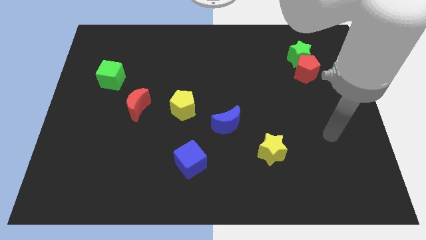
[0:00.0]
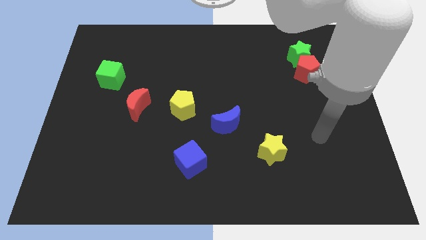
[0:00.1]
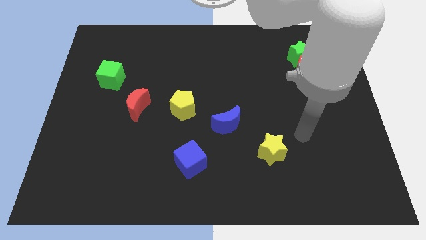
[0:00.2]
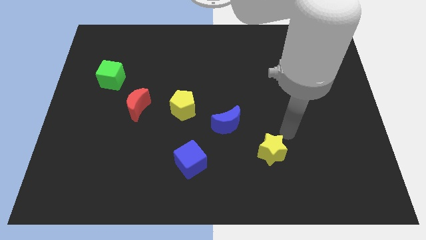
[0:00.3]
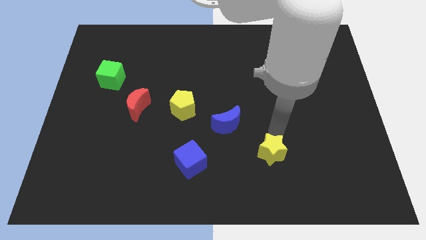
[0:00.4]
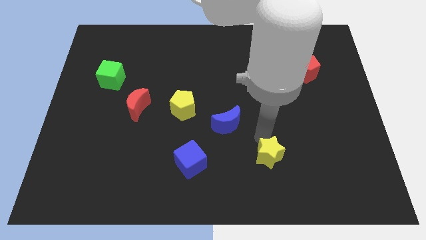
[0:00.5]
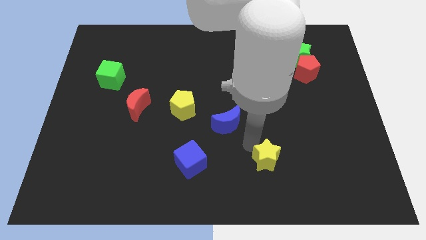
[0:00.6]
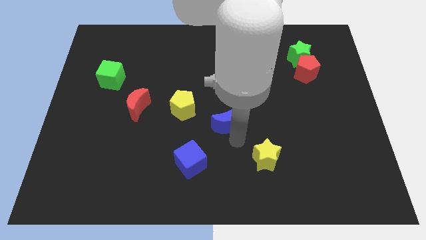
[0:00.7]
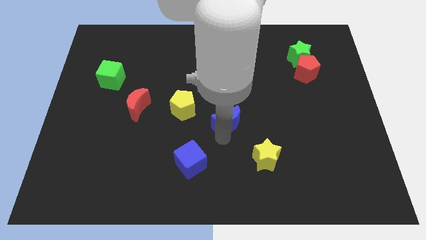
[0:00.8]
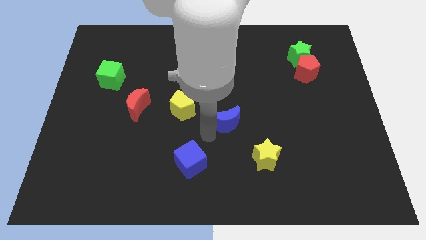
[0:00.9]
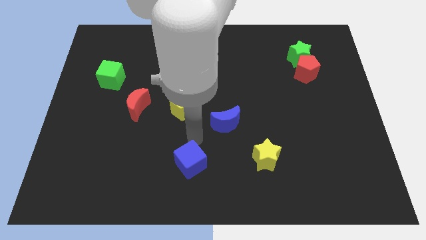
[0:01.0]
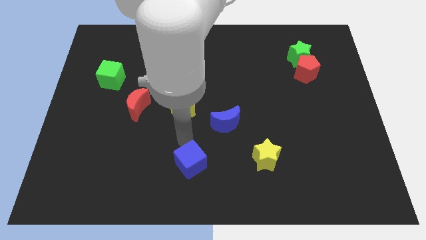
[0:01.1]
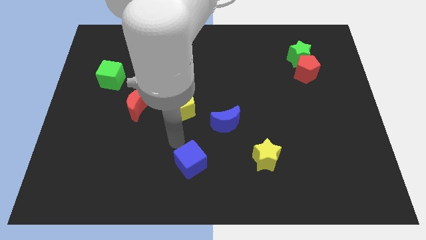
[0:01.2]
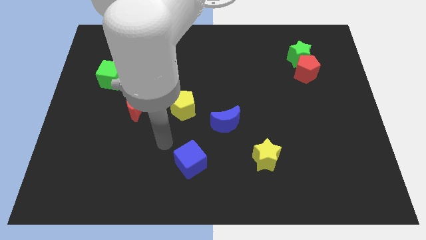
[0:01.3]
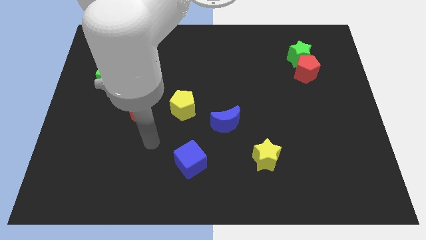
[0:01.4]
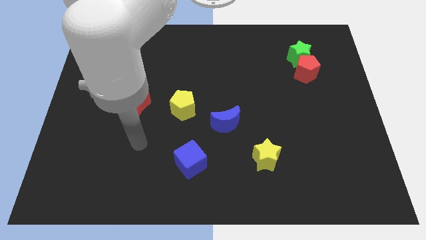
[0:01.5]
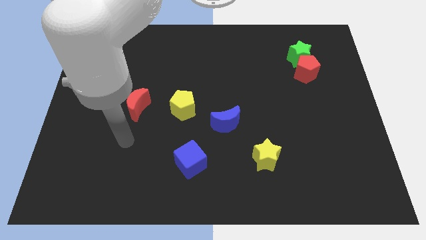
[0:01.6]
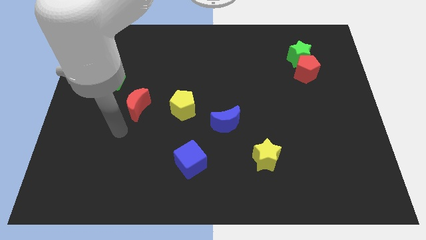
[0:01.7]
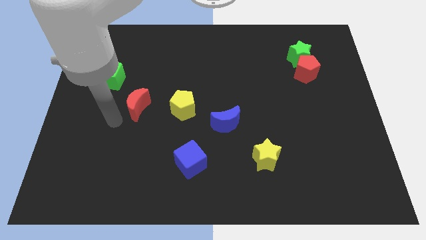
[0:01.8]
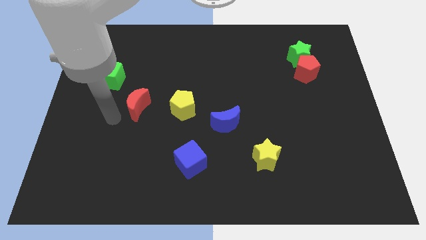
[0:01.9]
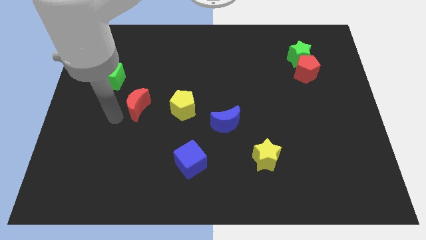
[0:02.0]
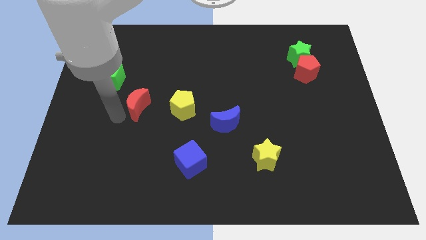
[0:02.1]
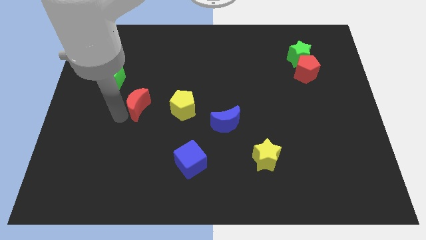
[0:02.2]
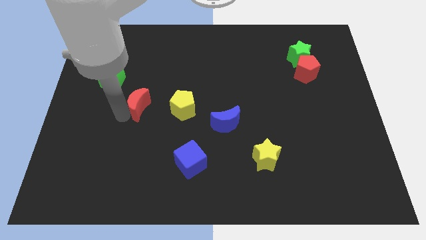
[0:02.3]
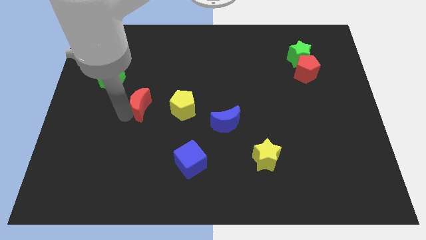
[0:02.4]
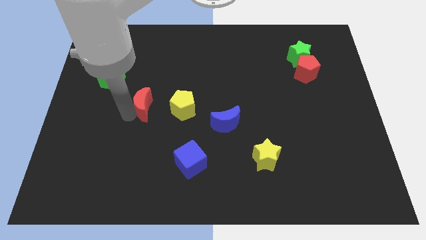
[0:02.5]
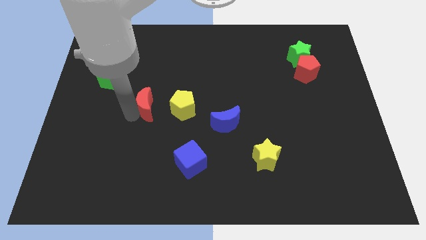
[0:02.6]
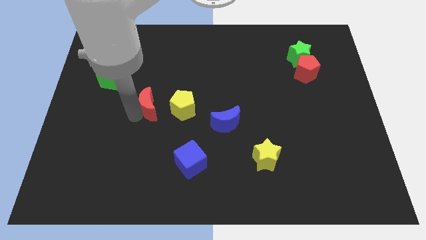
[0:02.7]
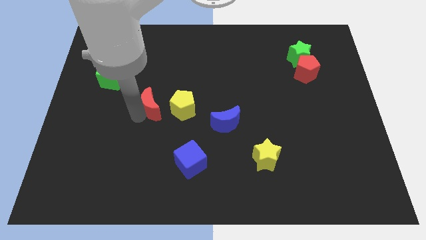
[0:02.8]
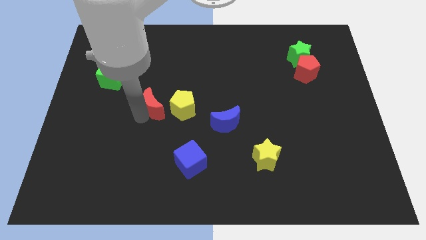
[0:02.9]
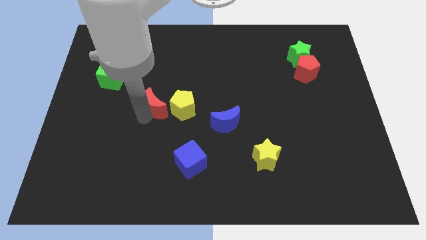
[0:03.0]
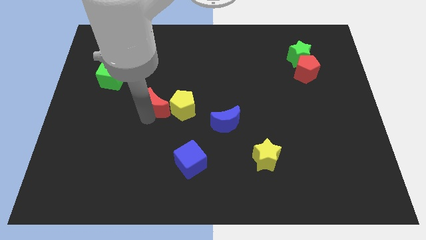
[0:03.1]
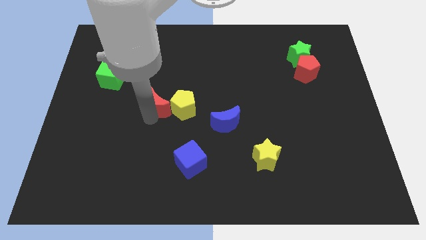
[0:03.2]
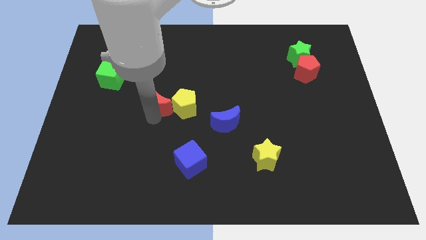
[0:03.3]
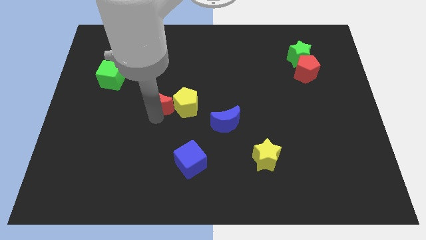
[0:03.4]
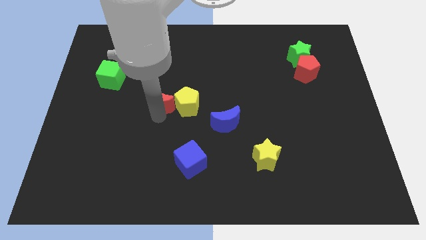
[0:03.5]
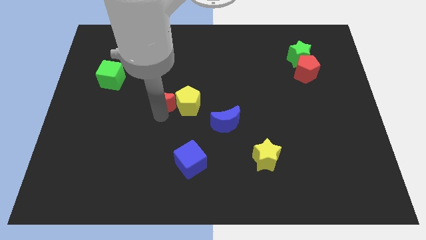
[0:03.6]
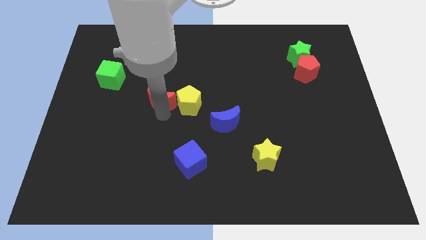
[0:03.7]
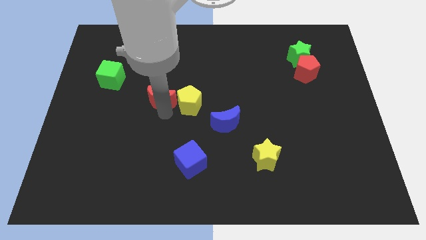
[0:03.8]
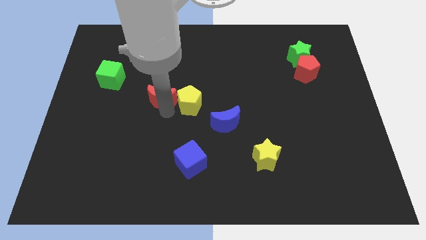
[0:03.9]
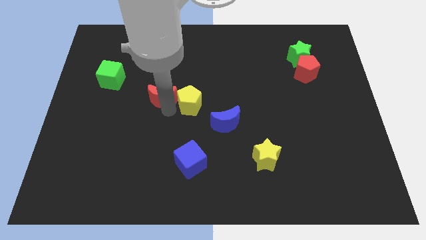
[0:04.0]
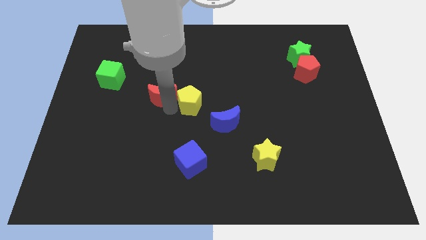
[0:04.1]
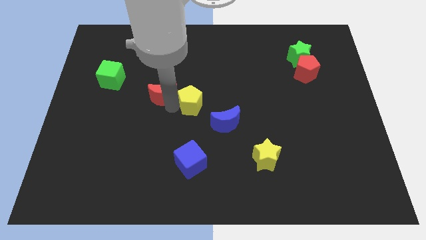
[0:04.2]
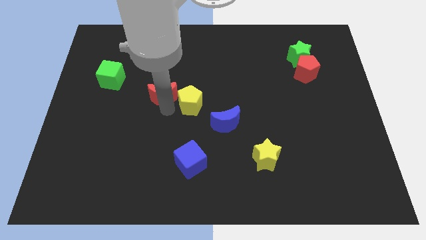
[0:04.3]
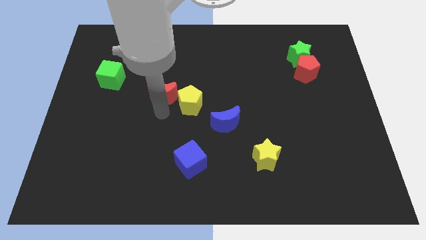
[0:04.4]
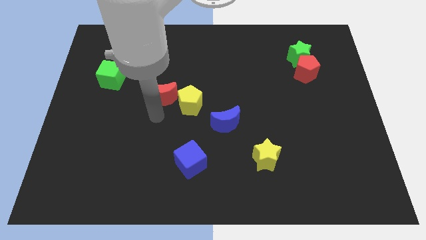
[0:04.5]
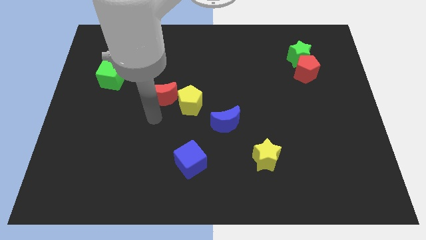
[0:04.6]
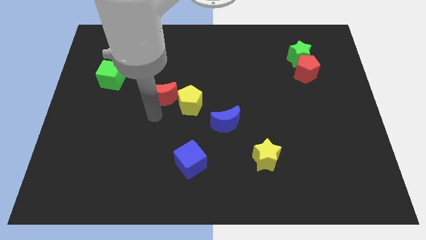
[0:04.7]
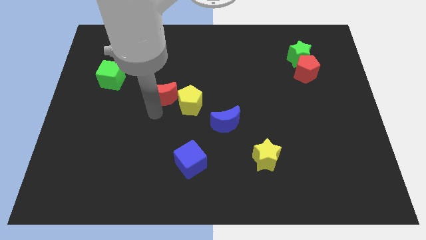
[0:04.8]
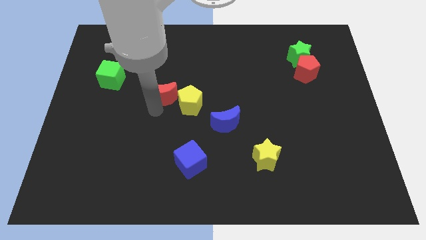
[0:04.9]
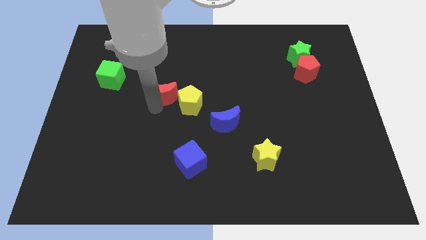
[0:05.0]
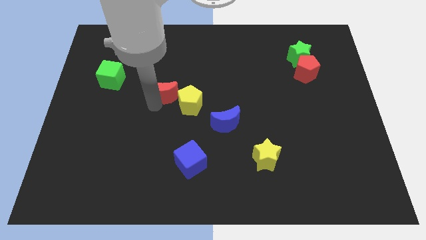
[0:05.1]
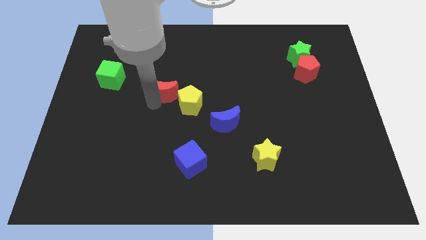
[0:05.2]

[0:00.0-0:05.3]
push the red moon diagonally upwards and right a little

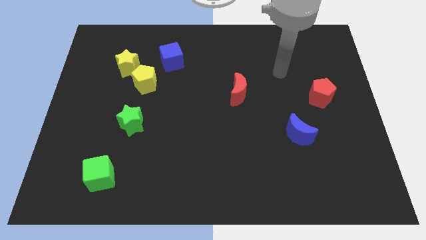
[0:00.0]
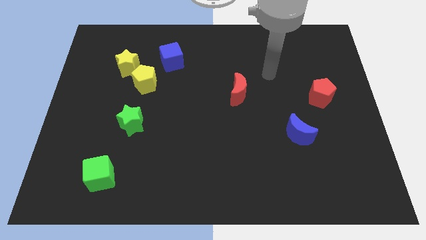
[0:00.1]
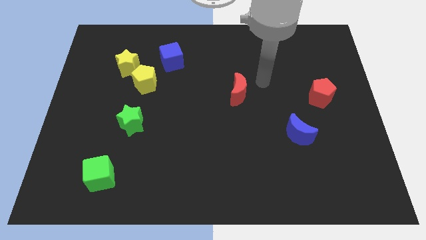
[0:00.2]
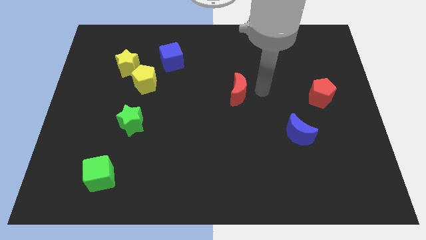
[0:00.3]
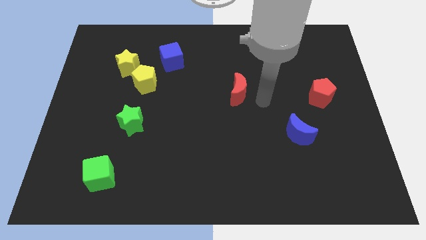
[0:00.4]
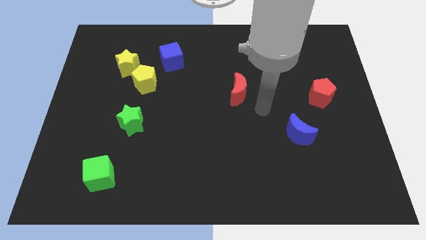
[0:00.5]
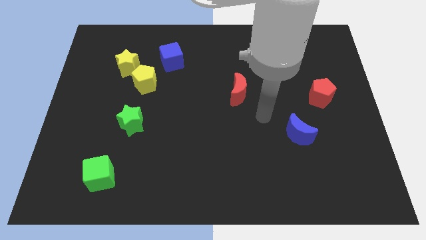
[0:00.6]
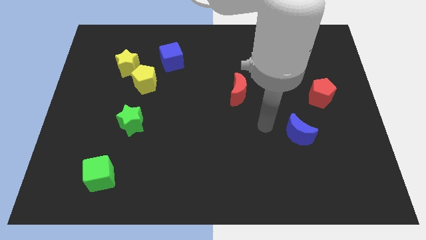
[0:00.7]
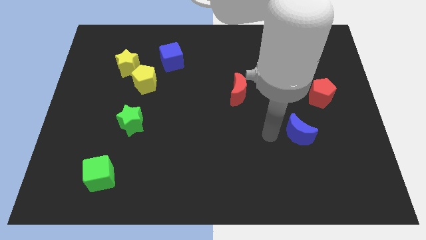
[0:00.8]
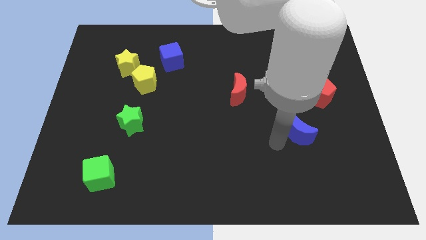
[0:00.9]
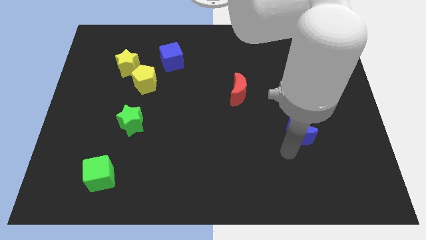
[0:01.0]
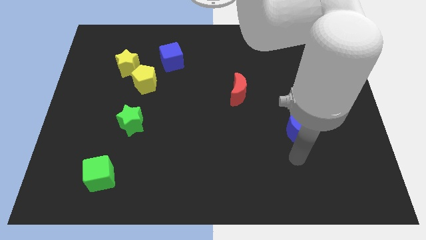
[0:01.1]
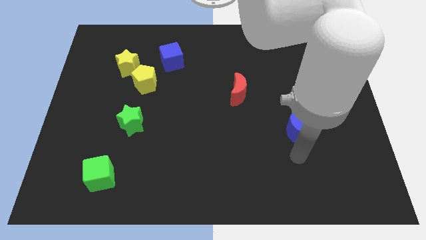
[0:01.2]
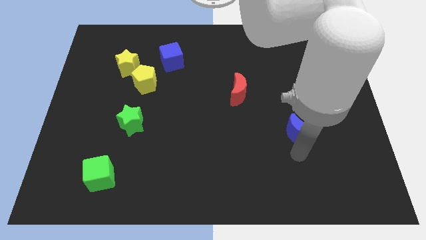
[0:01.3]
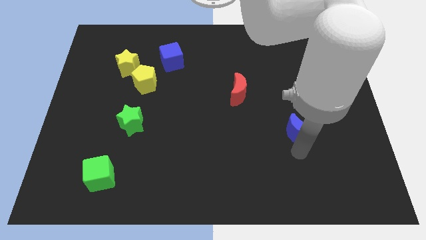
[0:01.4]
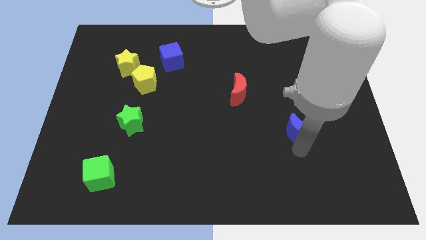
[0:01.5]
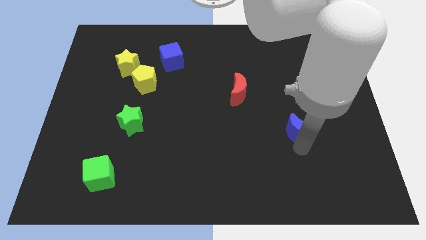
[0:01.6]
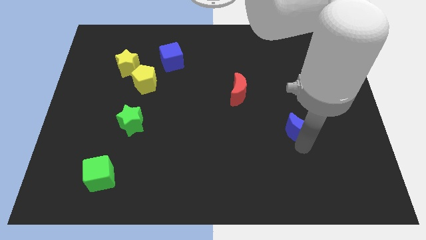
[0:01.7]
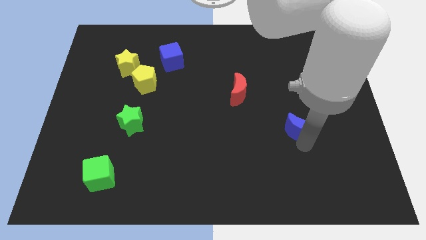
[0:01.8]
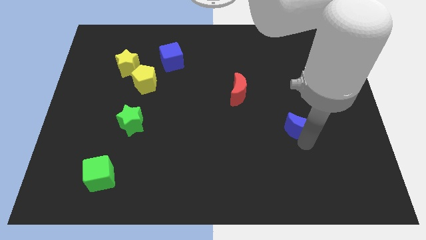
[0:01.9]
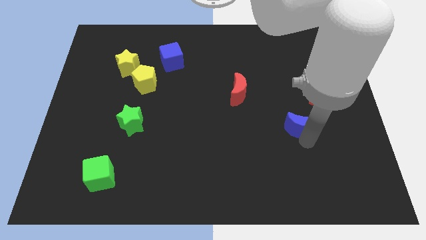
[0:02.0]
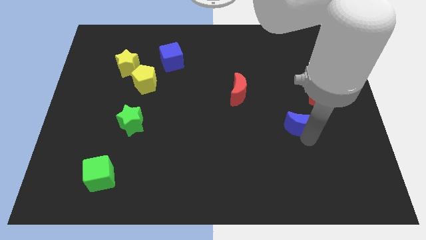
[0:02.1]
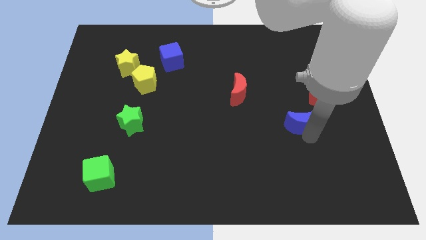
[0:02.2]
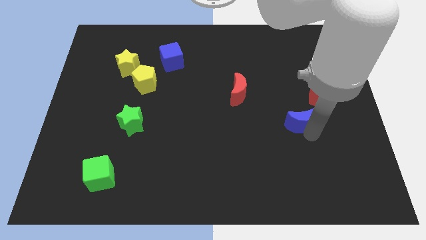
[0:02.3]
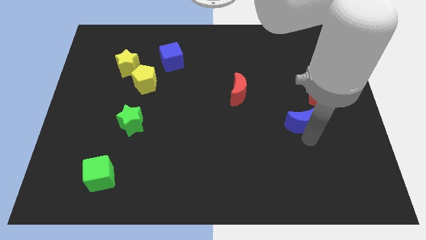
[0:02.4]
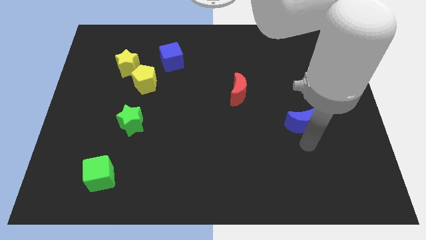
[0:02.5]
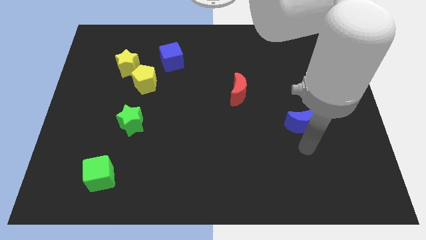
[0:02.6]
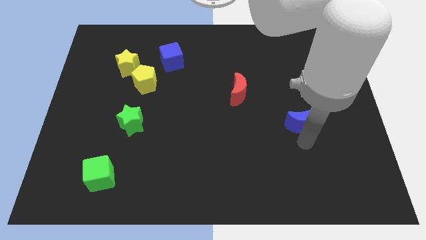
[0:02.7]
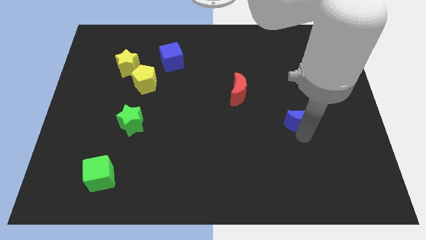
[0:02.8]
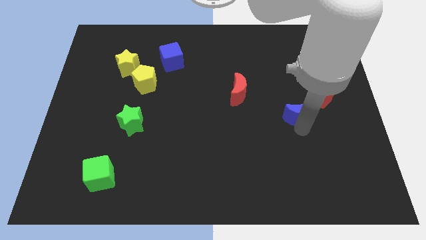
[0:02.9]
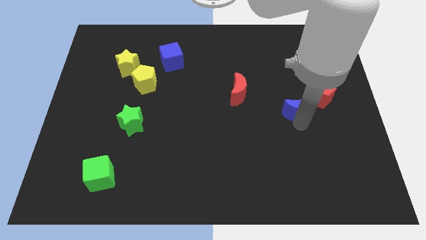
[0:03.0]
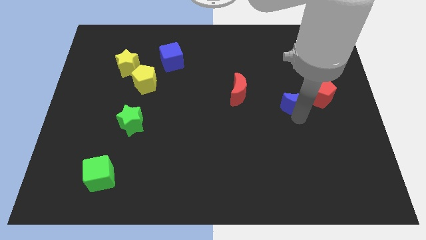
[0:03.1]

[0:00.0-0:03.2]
slightly move the blue moon up
